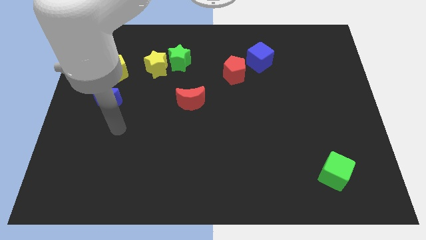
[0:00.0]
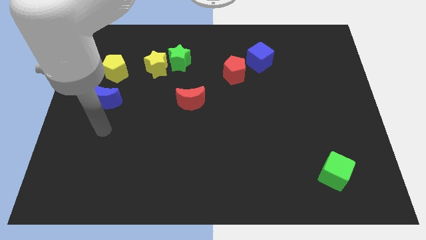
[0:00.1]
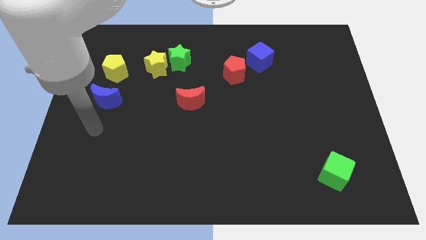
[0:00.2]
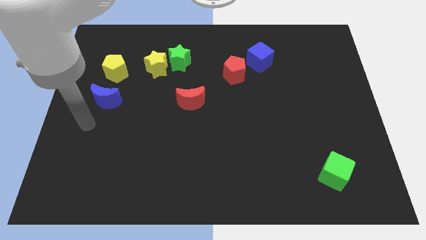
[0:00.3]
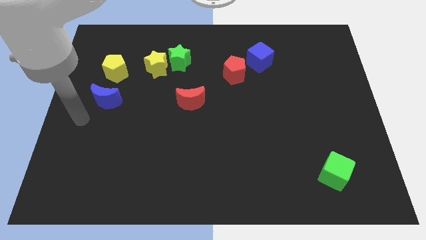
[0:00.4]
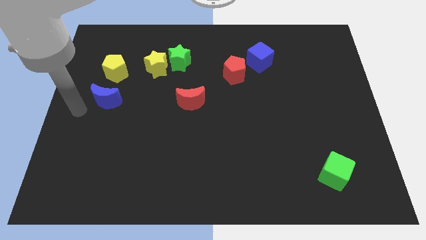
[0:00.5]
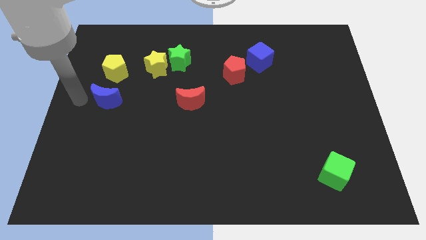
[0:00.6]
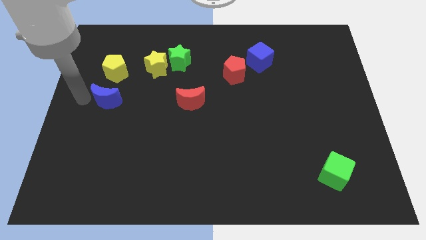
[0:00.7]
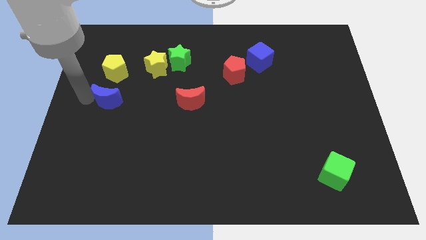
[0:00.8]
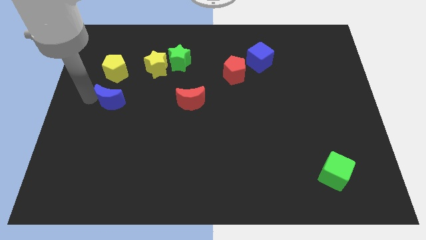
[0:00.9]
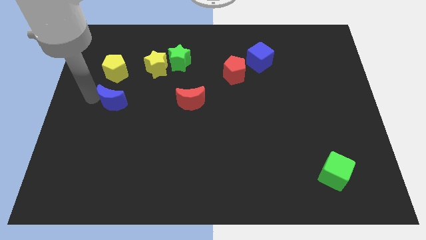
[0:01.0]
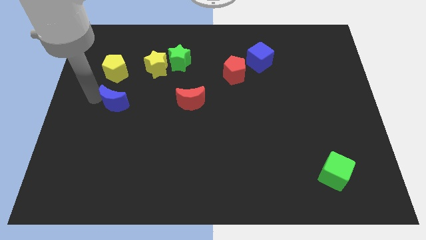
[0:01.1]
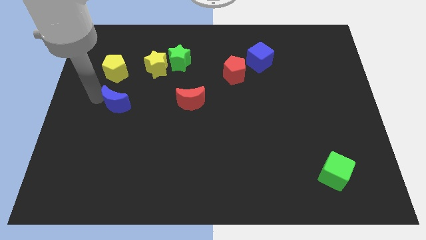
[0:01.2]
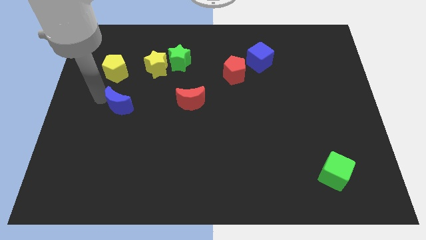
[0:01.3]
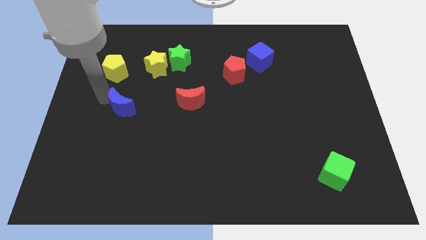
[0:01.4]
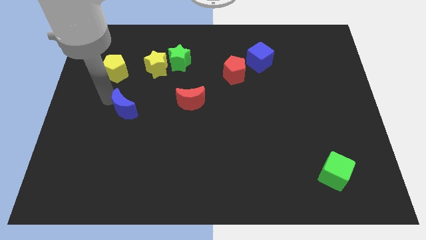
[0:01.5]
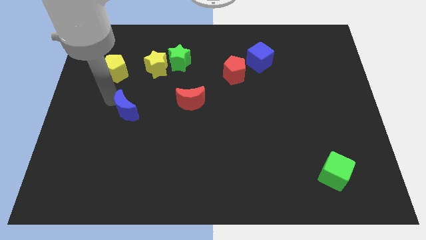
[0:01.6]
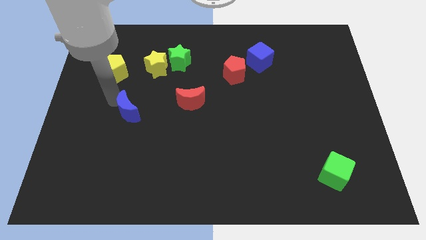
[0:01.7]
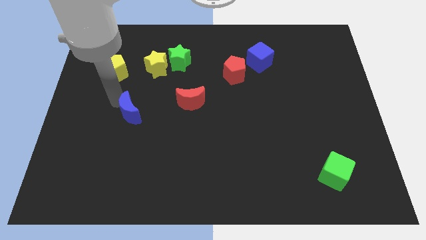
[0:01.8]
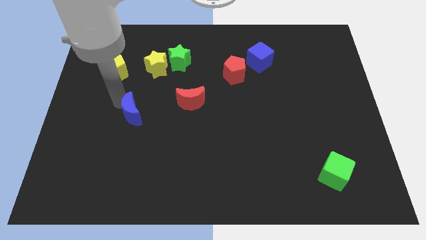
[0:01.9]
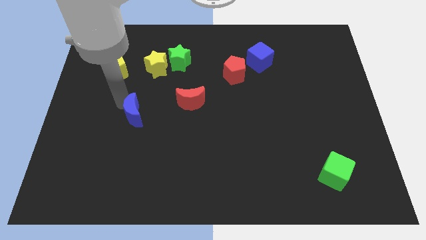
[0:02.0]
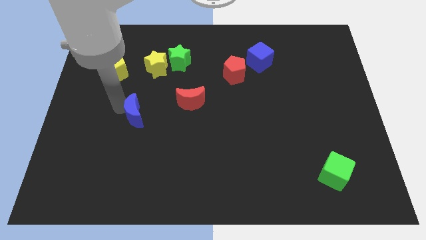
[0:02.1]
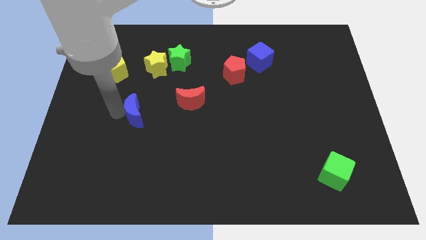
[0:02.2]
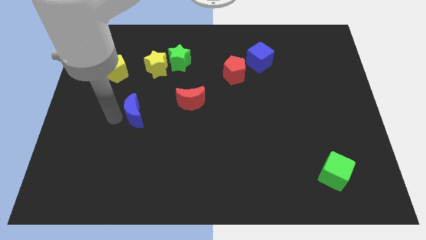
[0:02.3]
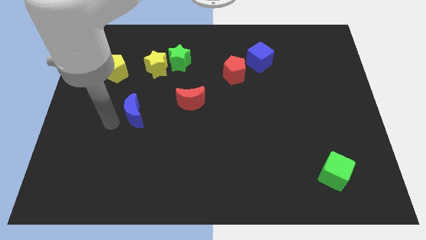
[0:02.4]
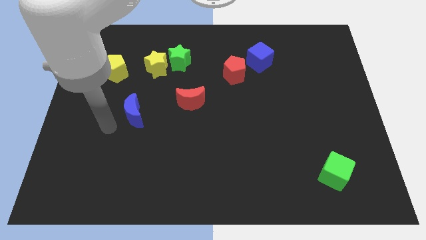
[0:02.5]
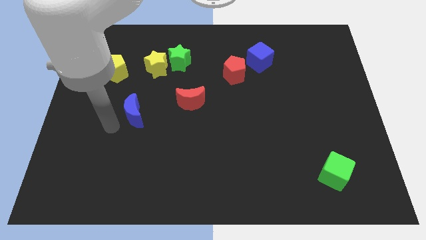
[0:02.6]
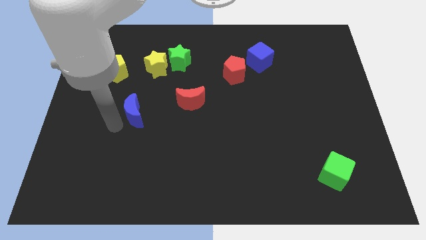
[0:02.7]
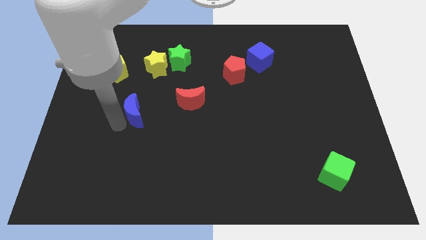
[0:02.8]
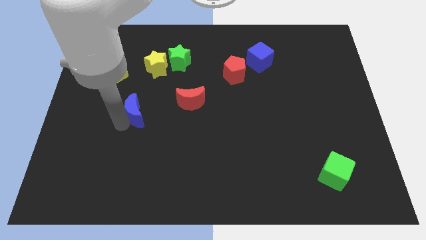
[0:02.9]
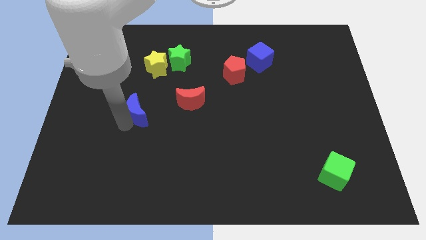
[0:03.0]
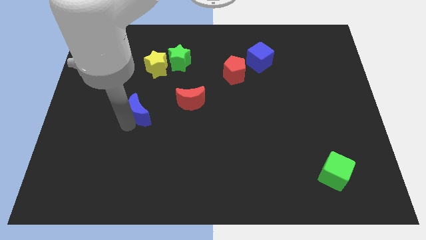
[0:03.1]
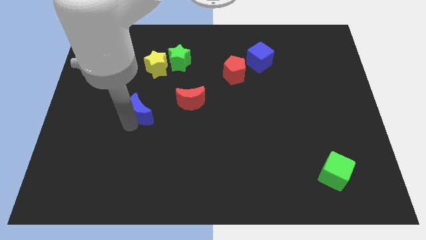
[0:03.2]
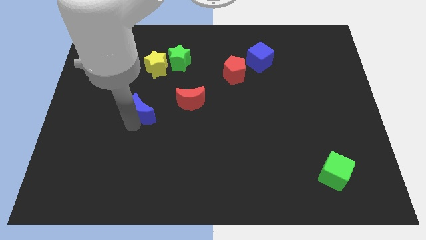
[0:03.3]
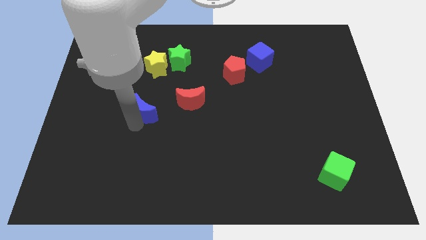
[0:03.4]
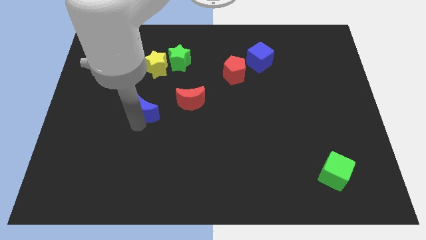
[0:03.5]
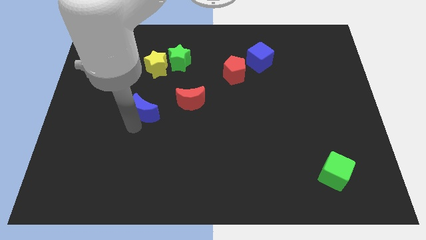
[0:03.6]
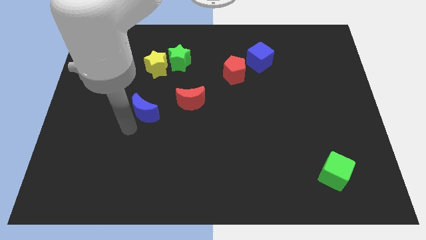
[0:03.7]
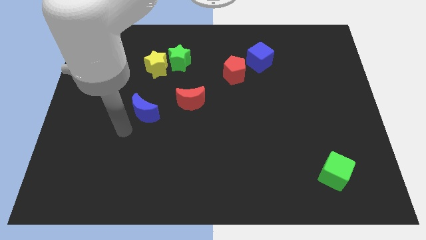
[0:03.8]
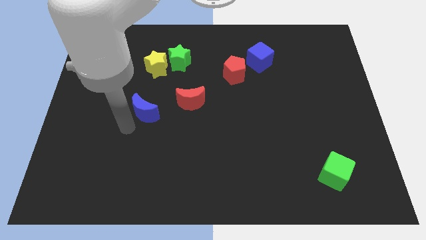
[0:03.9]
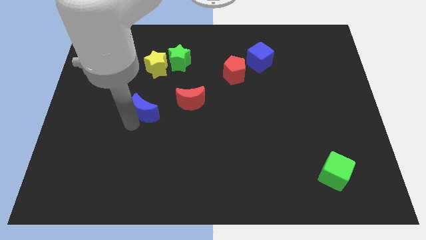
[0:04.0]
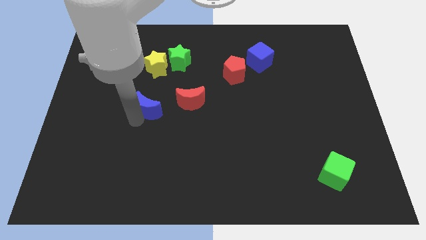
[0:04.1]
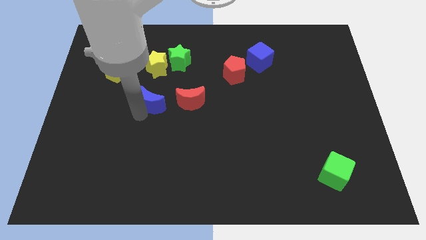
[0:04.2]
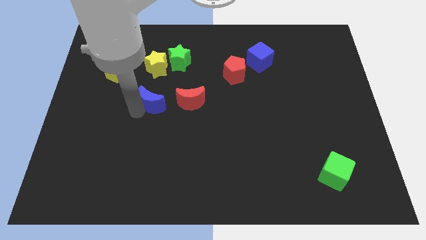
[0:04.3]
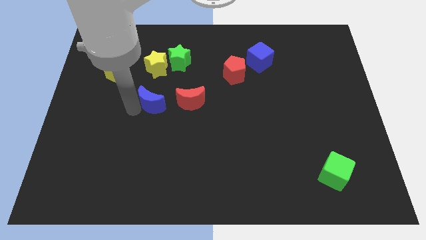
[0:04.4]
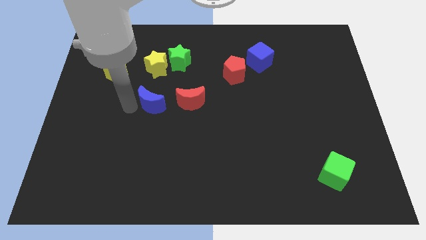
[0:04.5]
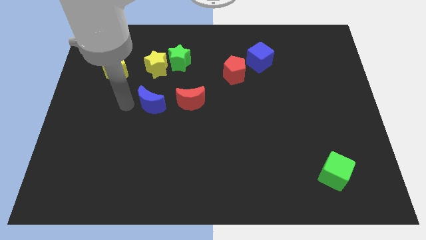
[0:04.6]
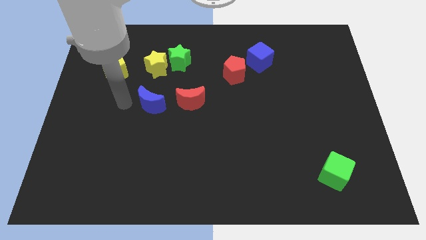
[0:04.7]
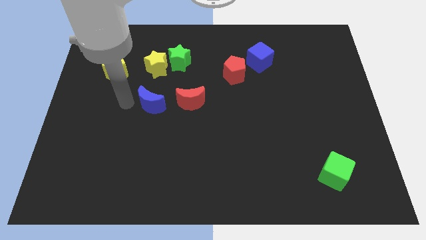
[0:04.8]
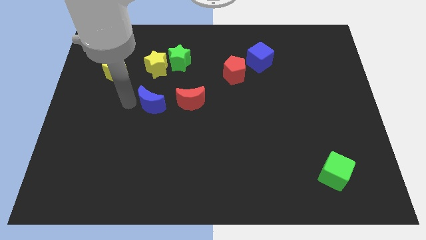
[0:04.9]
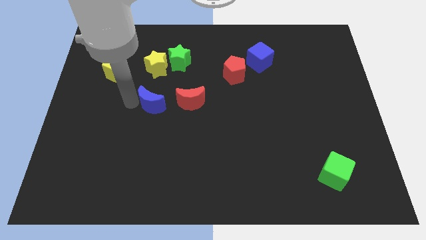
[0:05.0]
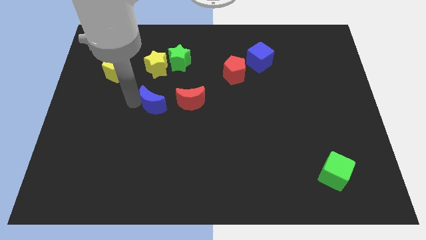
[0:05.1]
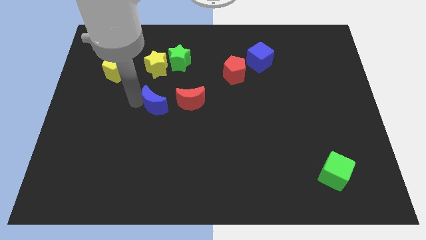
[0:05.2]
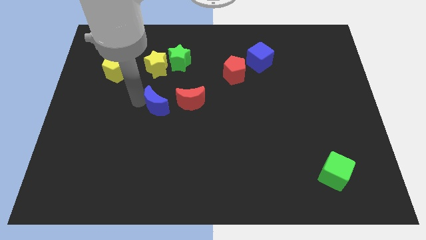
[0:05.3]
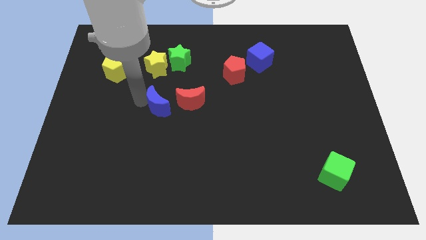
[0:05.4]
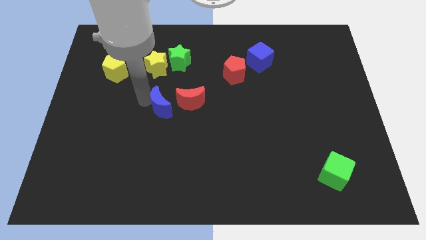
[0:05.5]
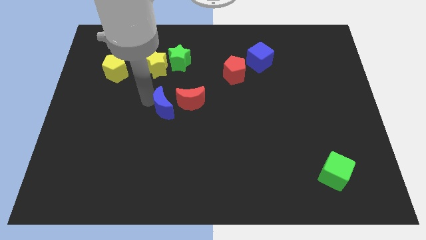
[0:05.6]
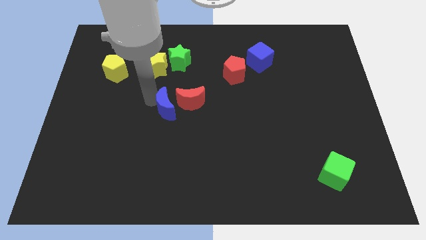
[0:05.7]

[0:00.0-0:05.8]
slide the blue moon close to the red moon

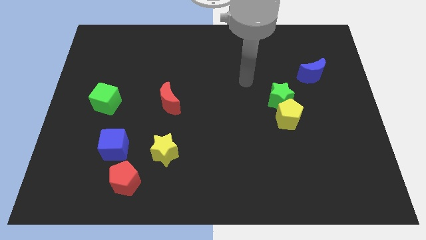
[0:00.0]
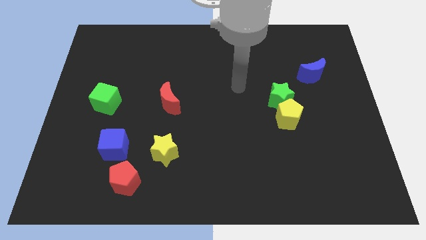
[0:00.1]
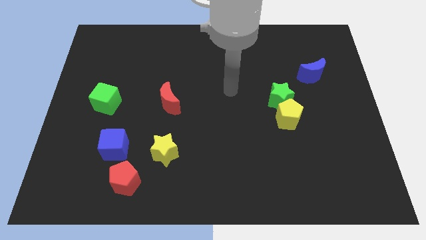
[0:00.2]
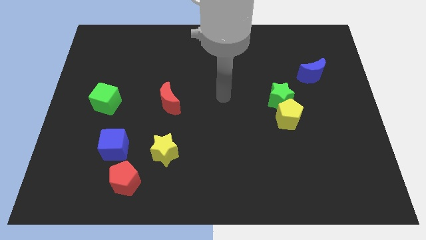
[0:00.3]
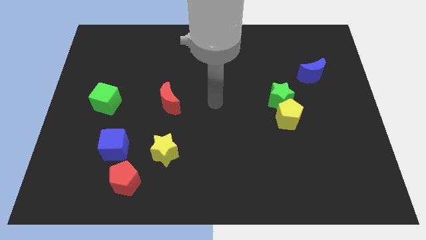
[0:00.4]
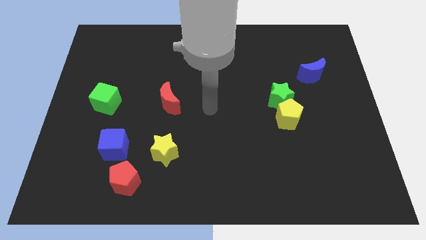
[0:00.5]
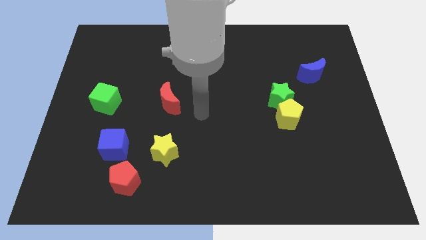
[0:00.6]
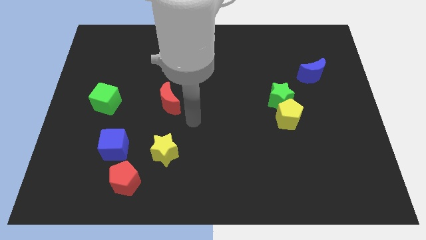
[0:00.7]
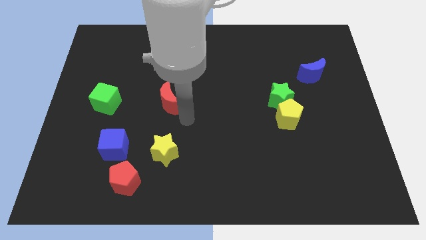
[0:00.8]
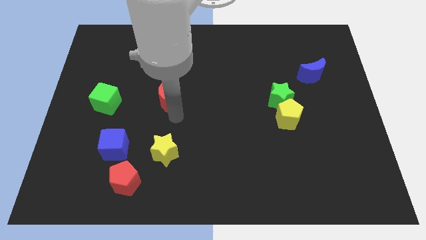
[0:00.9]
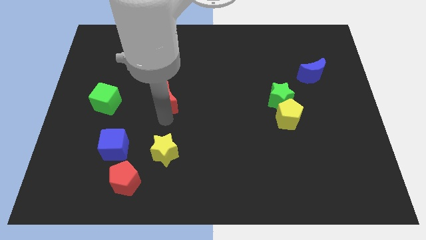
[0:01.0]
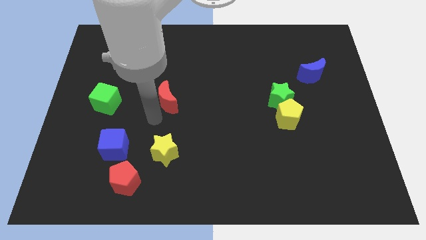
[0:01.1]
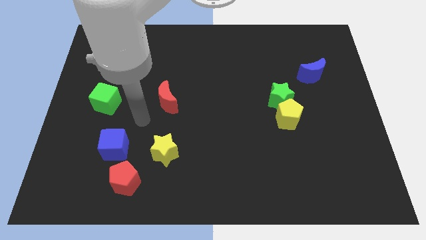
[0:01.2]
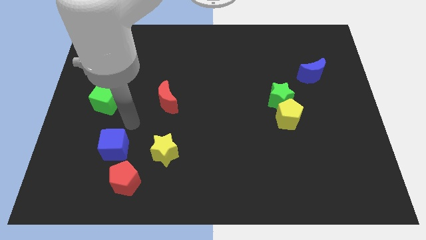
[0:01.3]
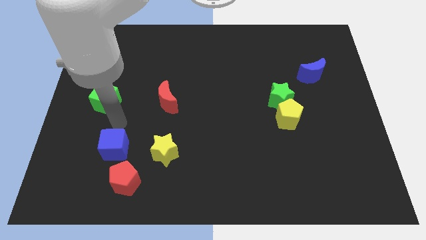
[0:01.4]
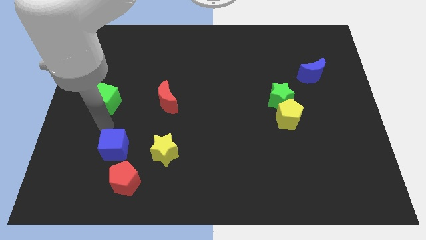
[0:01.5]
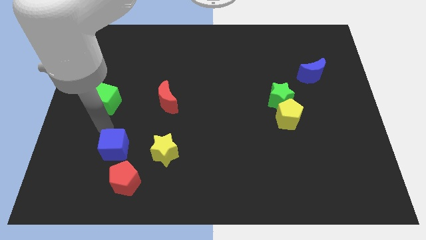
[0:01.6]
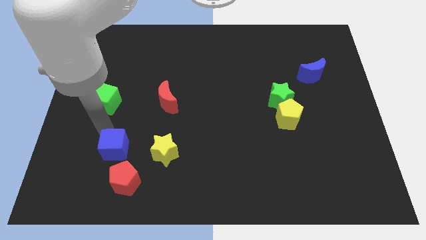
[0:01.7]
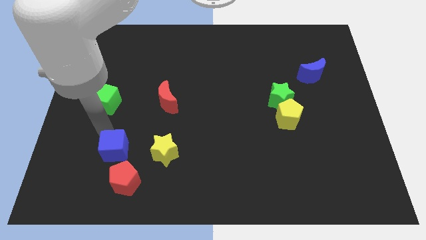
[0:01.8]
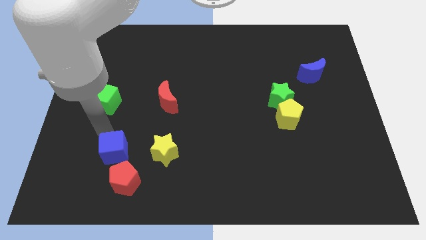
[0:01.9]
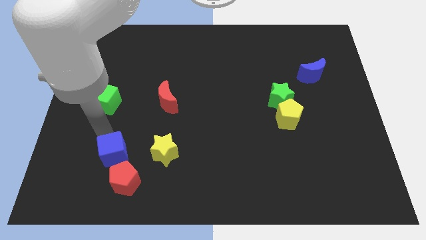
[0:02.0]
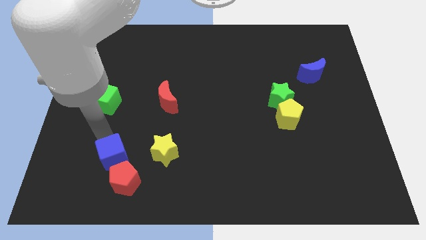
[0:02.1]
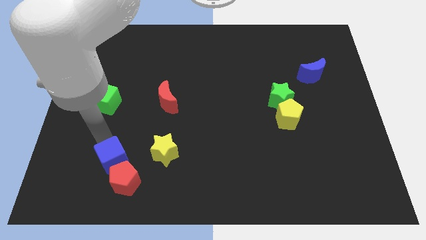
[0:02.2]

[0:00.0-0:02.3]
move the blue cube next to the red pentagon

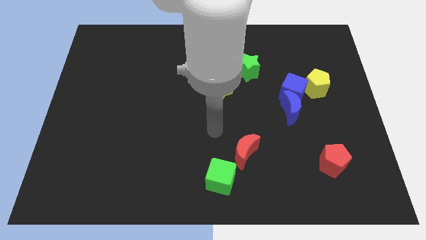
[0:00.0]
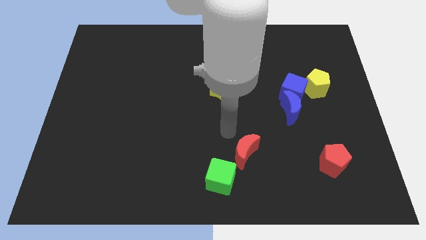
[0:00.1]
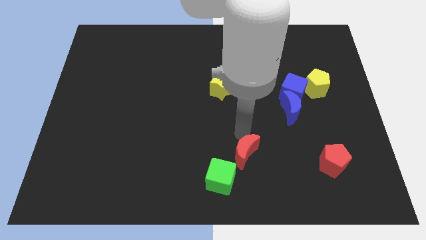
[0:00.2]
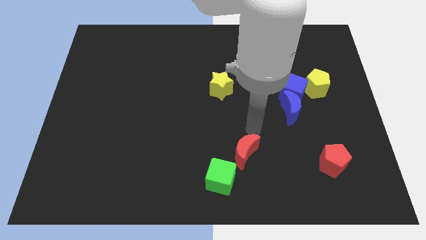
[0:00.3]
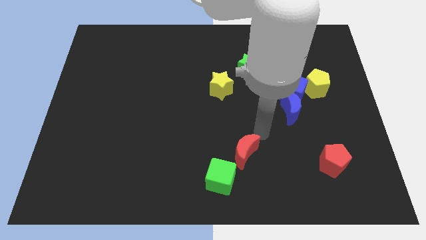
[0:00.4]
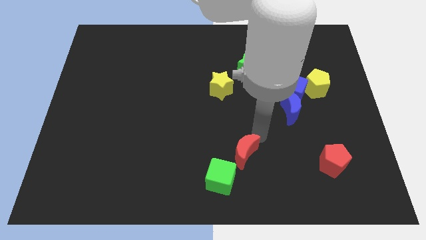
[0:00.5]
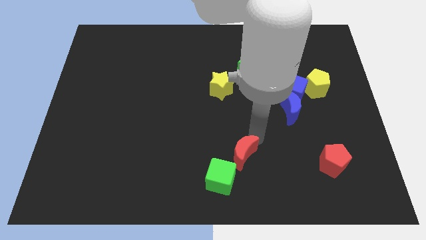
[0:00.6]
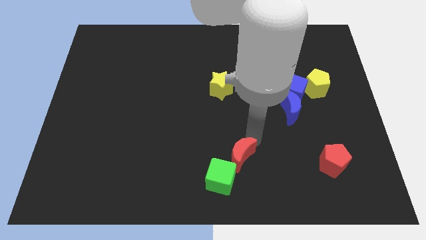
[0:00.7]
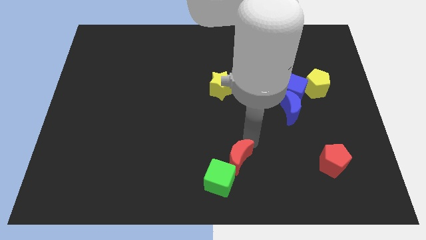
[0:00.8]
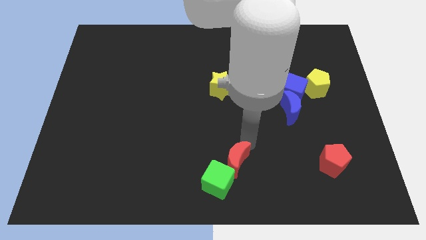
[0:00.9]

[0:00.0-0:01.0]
move the red moon close to the green cube
